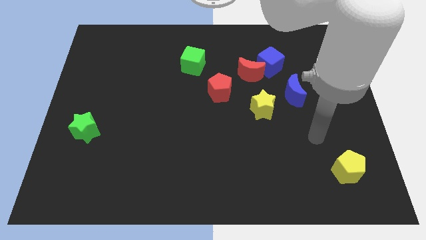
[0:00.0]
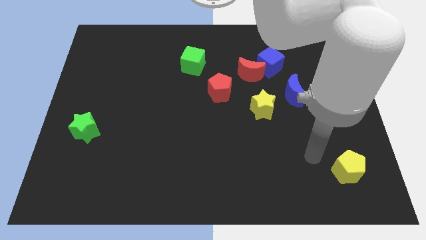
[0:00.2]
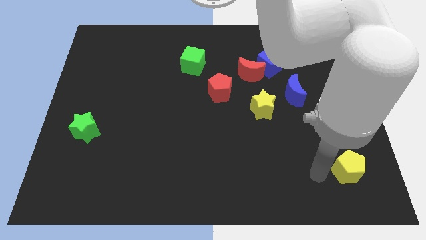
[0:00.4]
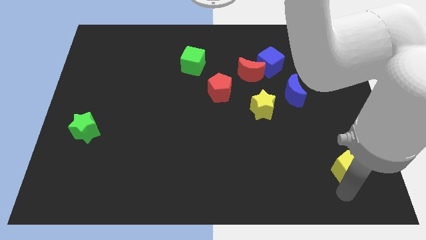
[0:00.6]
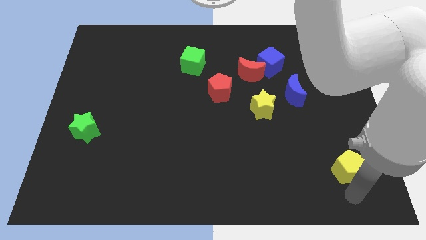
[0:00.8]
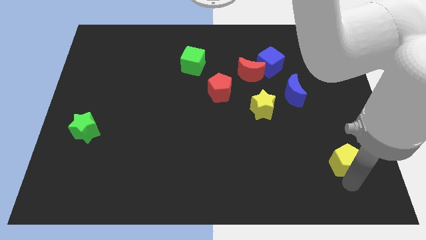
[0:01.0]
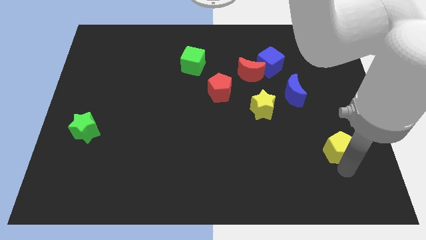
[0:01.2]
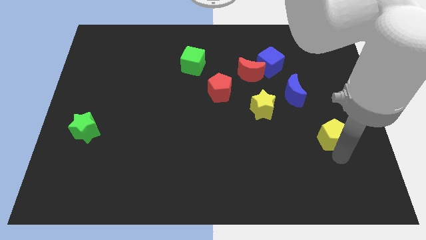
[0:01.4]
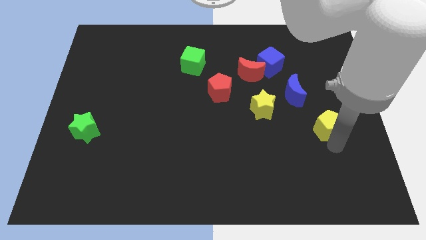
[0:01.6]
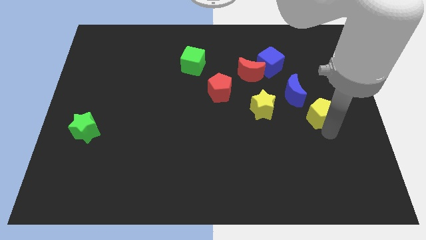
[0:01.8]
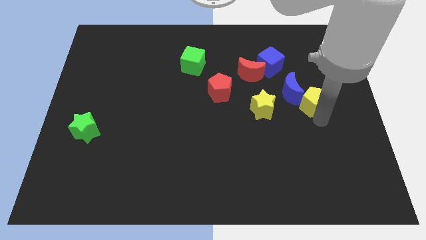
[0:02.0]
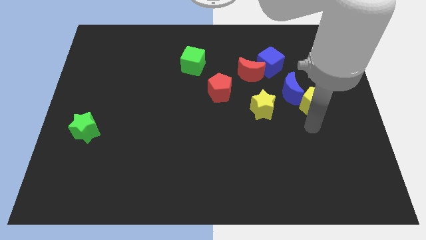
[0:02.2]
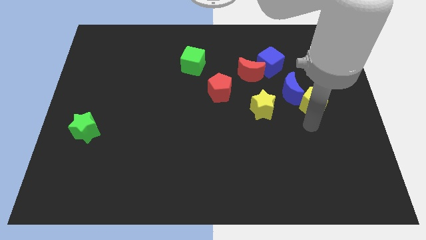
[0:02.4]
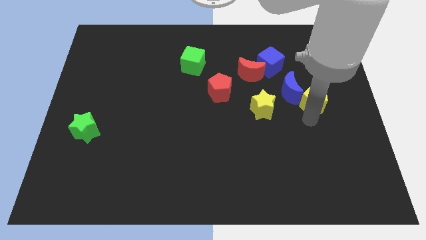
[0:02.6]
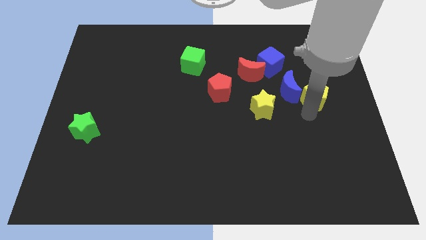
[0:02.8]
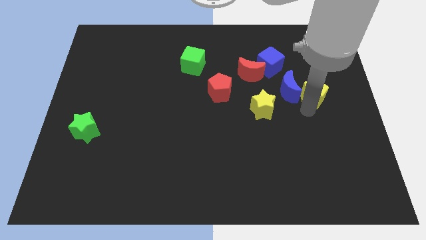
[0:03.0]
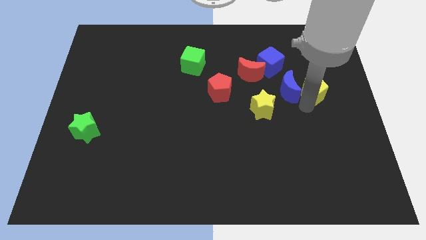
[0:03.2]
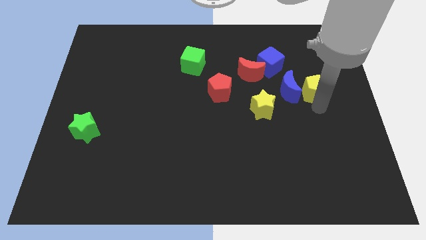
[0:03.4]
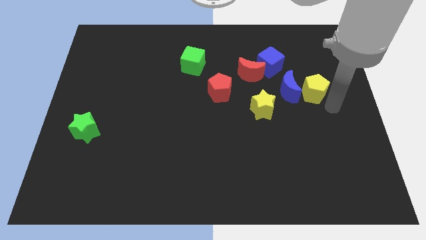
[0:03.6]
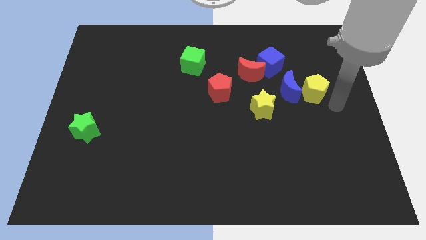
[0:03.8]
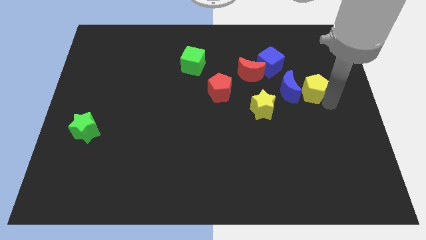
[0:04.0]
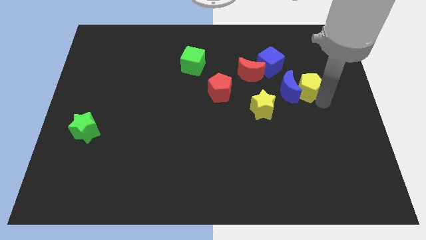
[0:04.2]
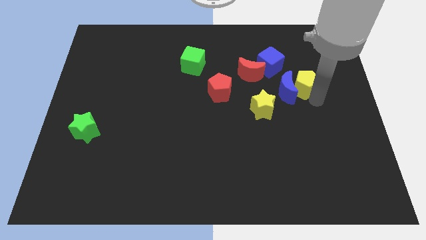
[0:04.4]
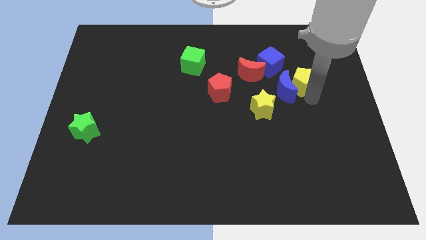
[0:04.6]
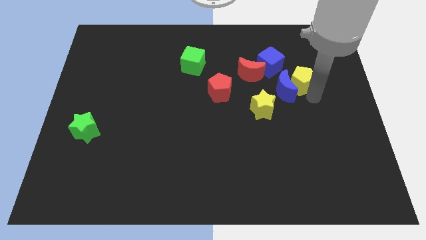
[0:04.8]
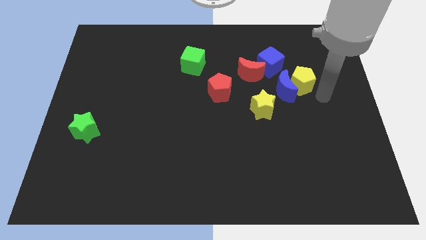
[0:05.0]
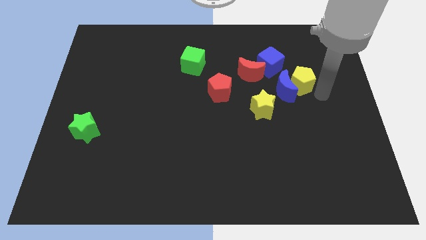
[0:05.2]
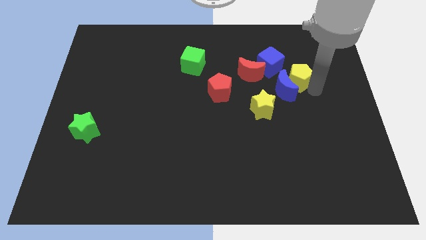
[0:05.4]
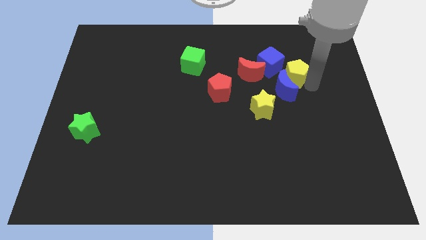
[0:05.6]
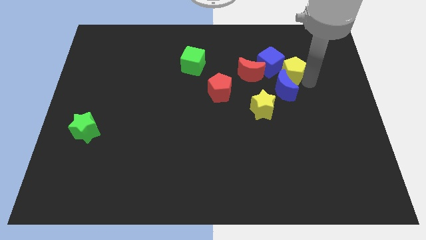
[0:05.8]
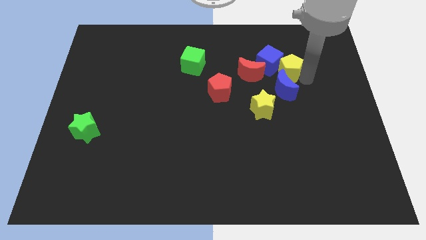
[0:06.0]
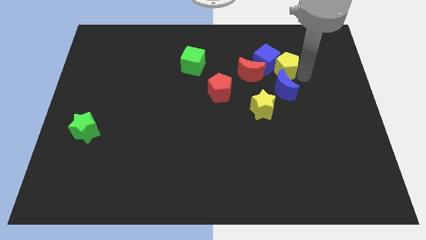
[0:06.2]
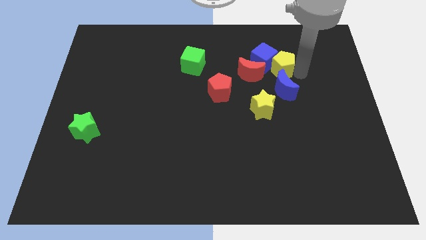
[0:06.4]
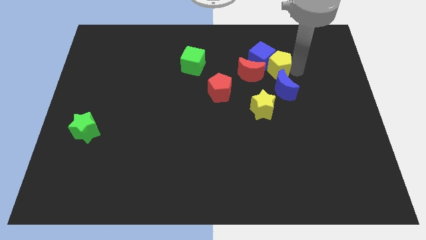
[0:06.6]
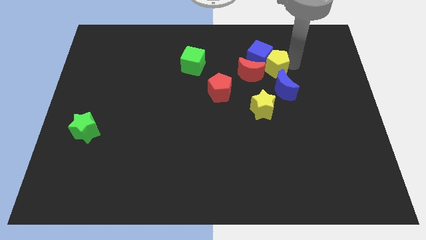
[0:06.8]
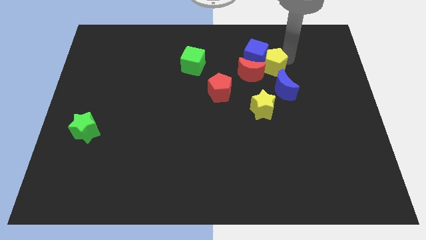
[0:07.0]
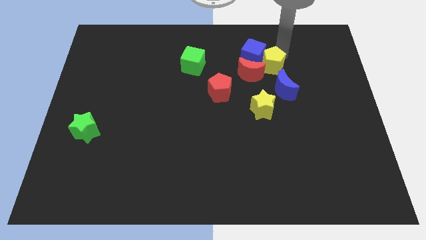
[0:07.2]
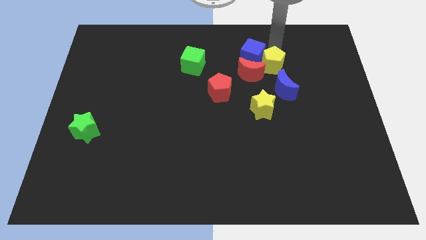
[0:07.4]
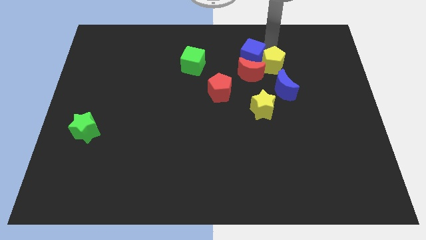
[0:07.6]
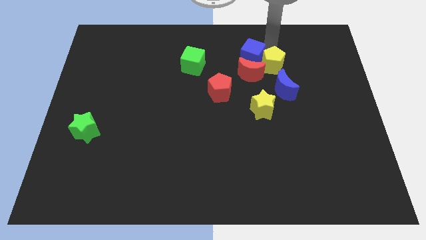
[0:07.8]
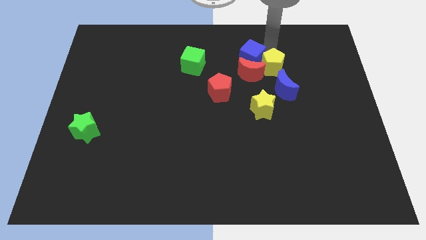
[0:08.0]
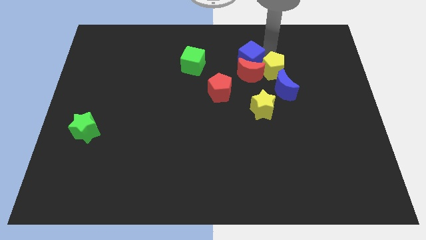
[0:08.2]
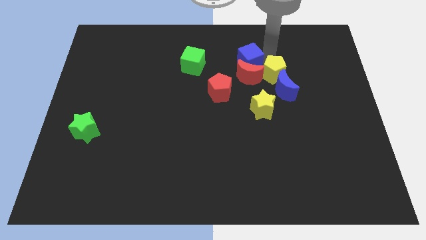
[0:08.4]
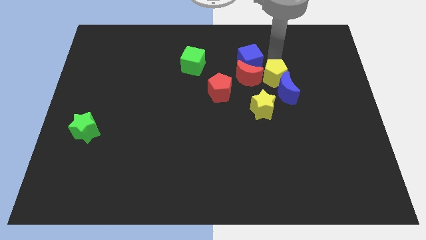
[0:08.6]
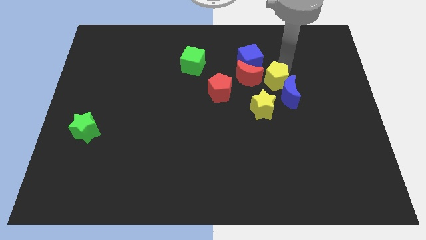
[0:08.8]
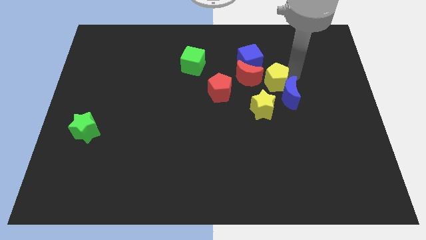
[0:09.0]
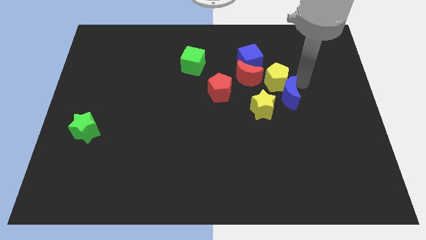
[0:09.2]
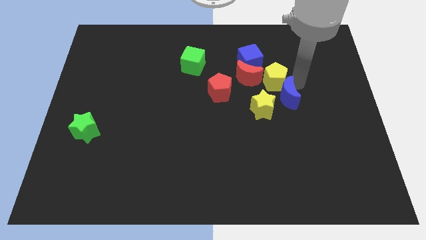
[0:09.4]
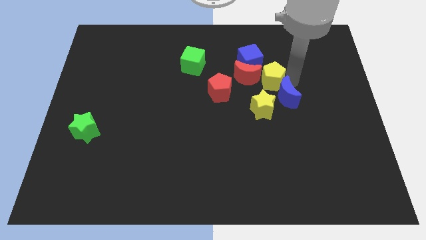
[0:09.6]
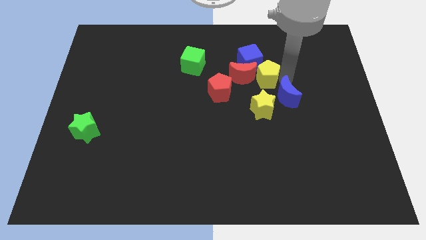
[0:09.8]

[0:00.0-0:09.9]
put the yellow pentagon close to the red moon

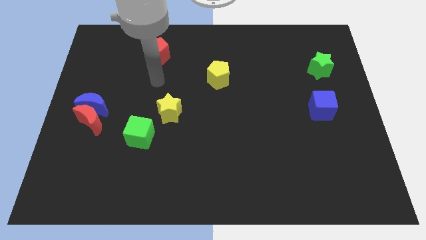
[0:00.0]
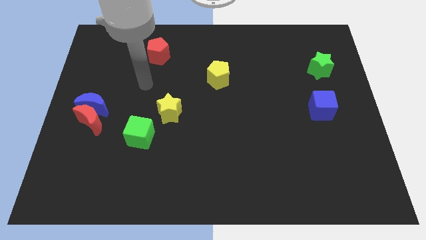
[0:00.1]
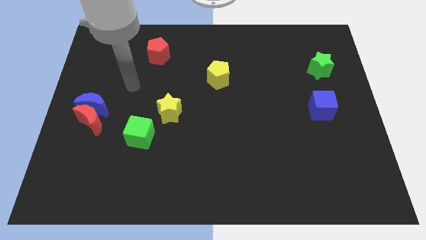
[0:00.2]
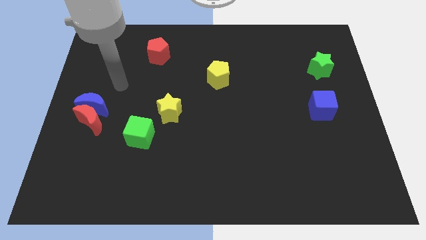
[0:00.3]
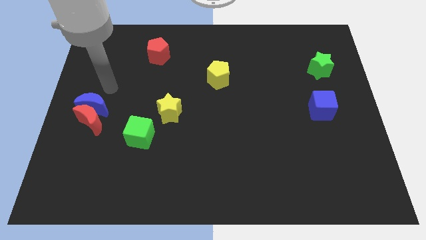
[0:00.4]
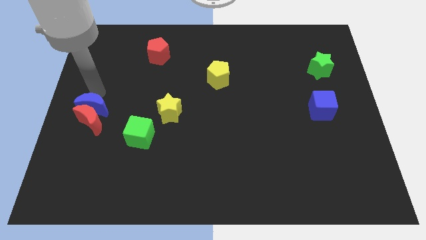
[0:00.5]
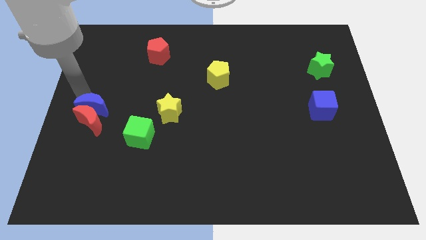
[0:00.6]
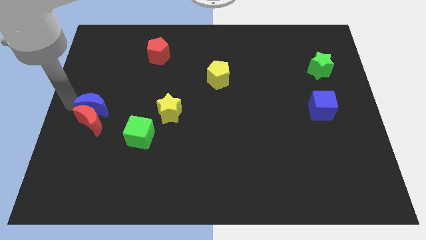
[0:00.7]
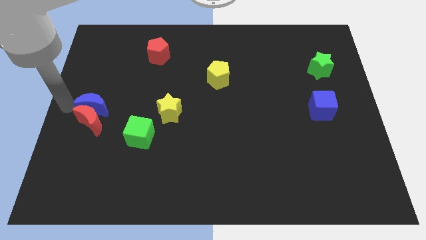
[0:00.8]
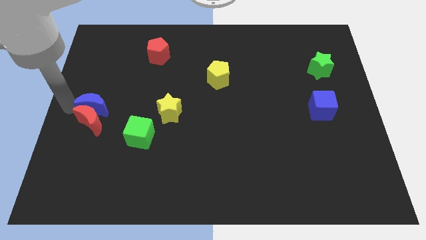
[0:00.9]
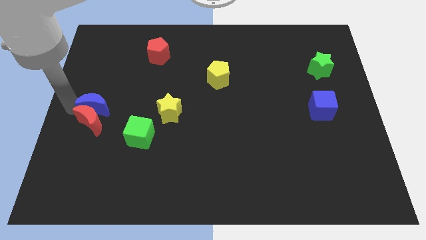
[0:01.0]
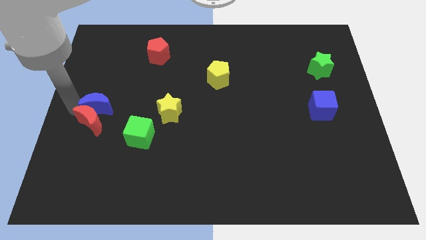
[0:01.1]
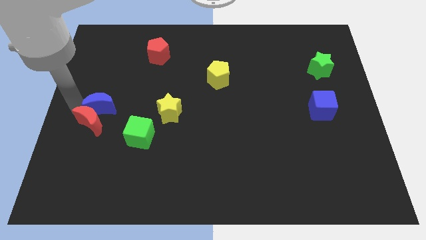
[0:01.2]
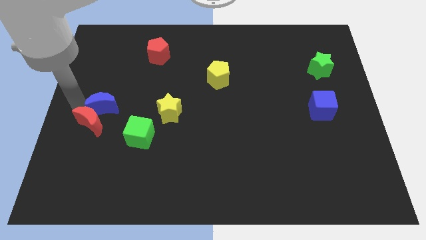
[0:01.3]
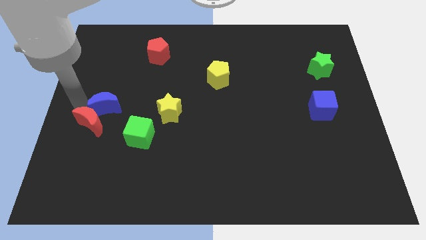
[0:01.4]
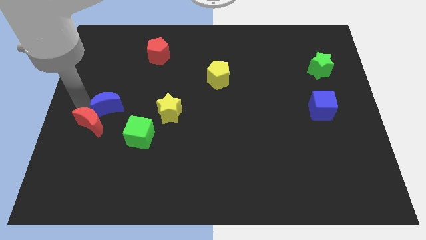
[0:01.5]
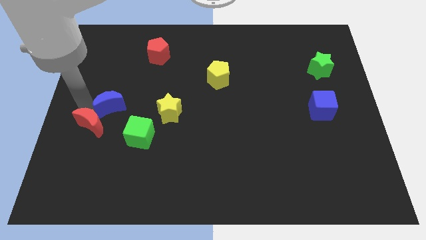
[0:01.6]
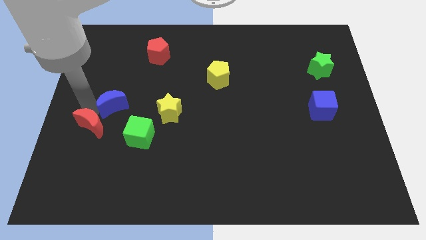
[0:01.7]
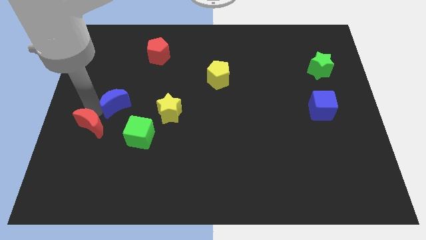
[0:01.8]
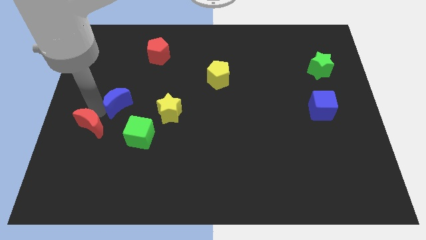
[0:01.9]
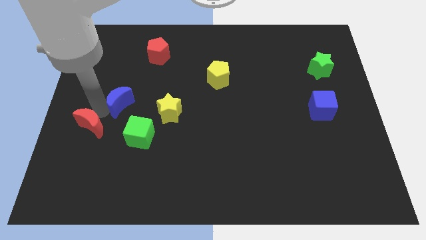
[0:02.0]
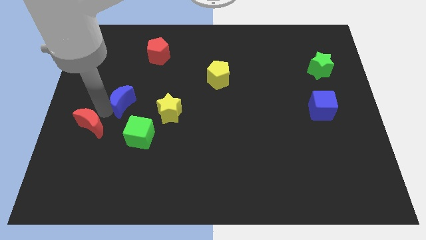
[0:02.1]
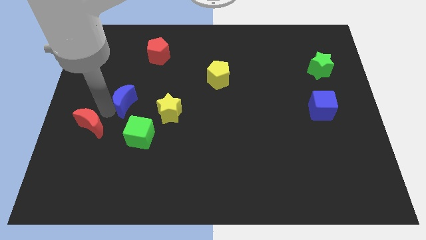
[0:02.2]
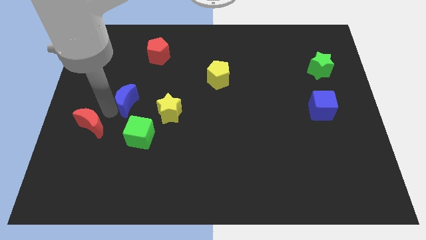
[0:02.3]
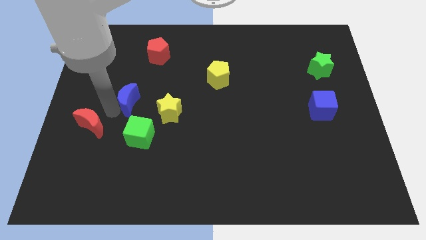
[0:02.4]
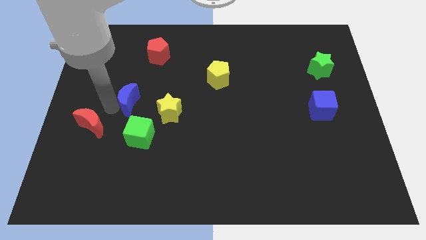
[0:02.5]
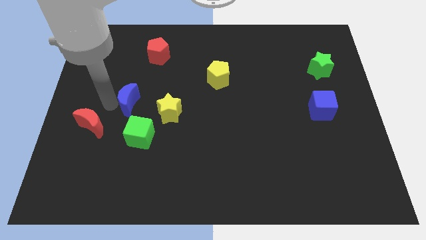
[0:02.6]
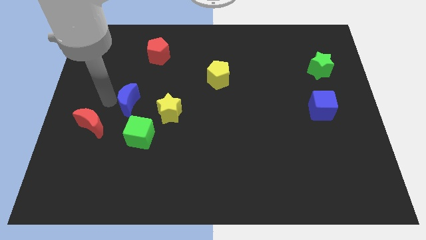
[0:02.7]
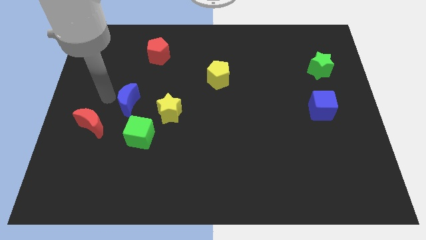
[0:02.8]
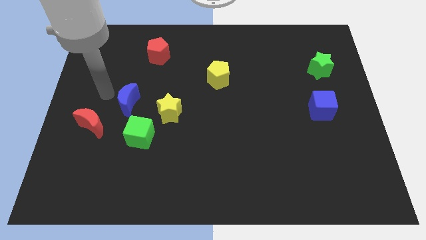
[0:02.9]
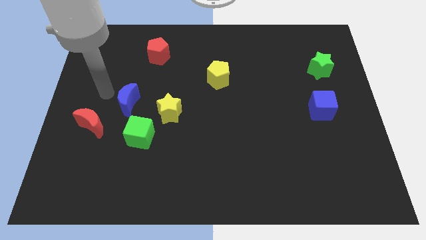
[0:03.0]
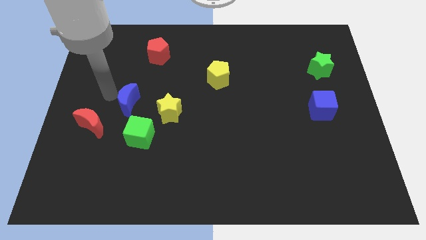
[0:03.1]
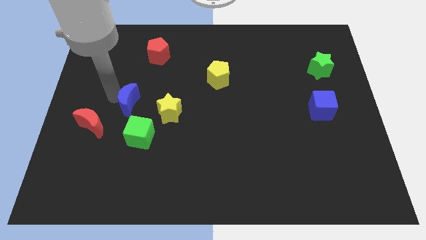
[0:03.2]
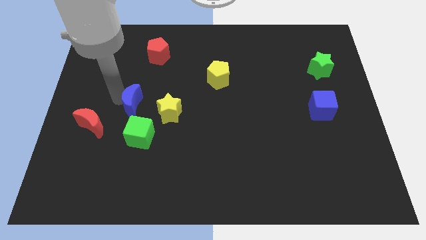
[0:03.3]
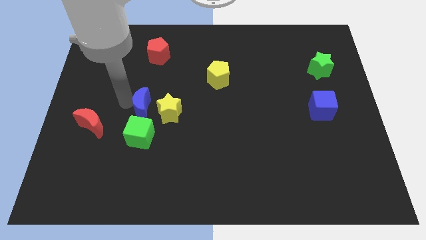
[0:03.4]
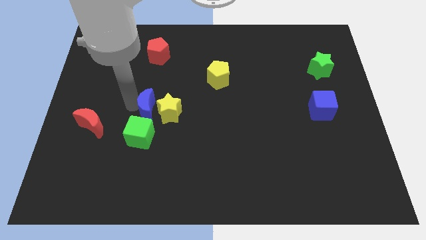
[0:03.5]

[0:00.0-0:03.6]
move the blue moon towards the yellow star
